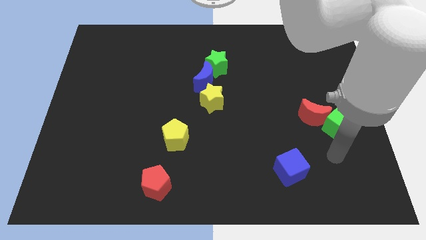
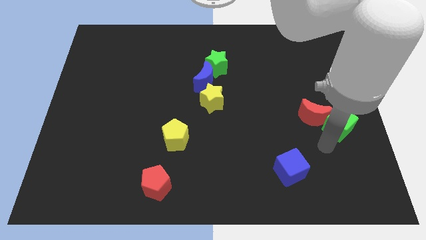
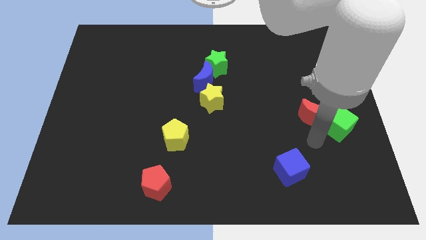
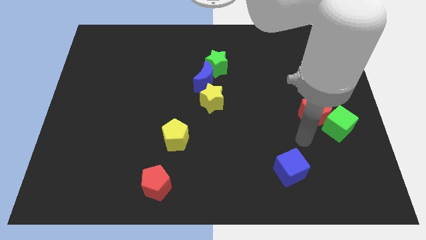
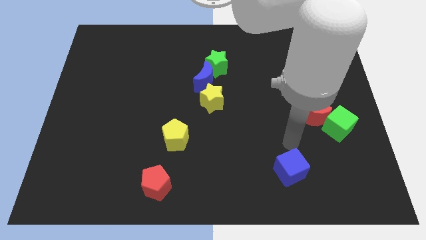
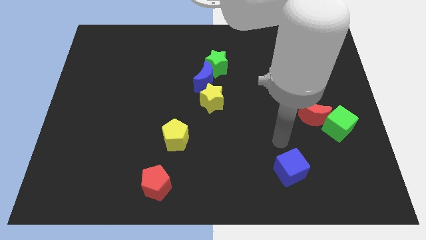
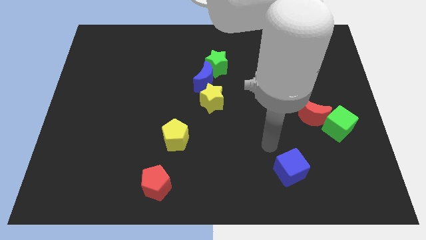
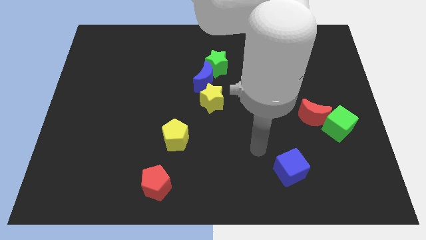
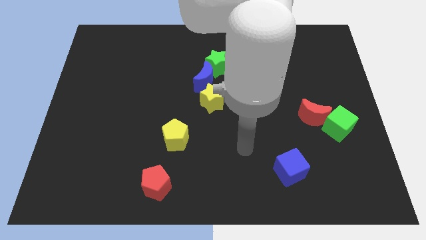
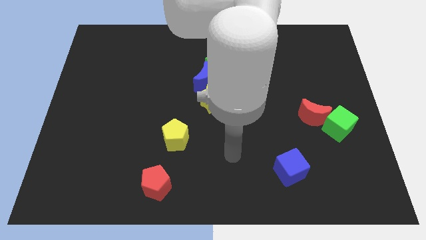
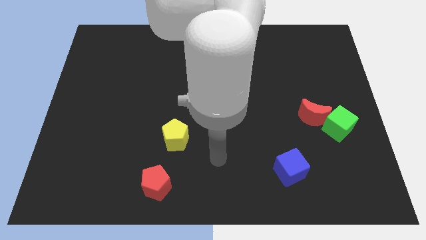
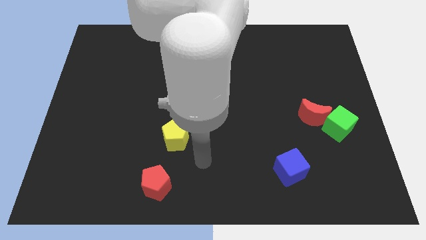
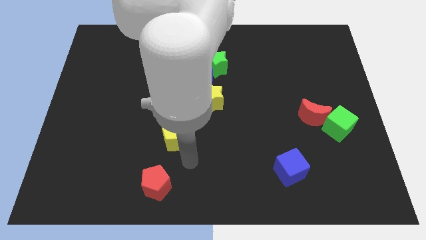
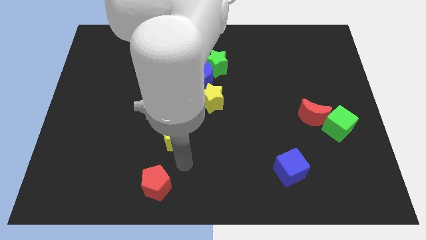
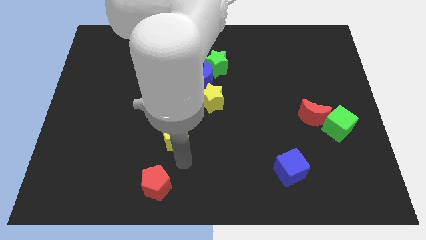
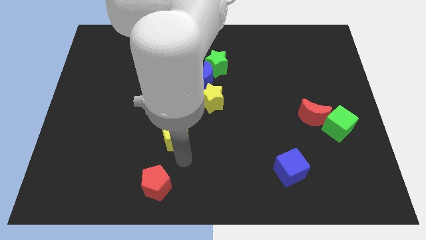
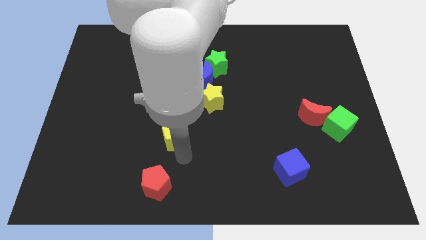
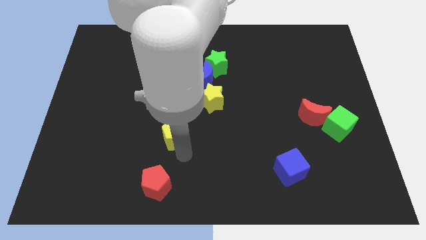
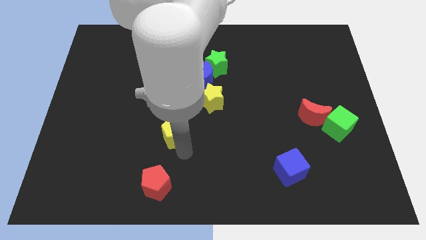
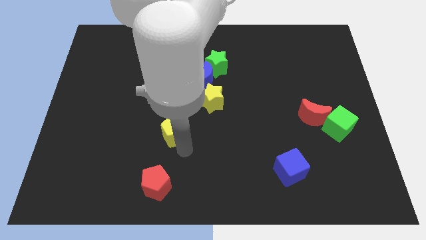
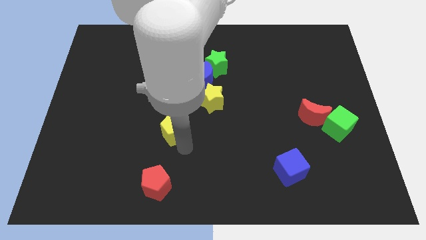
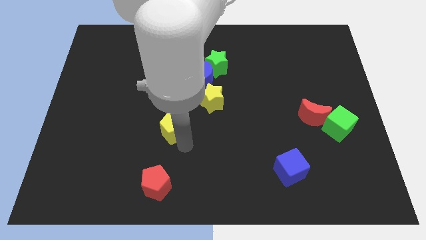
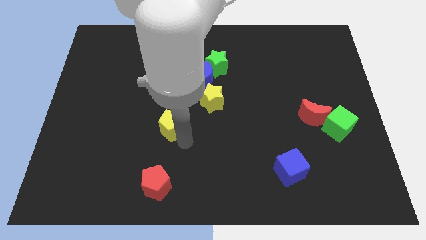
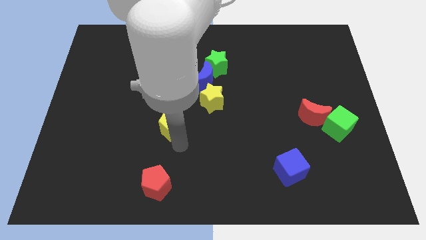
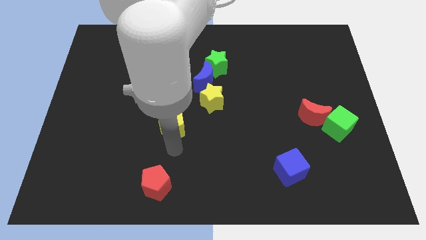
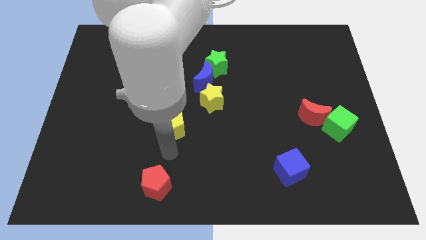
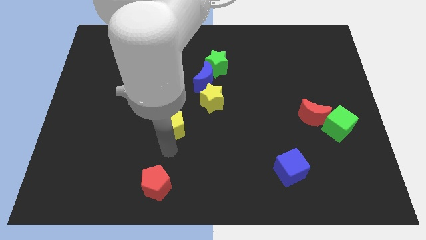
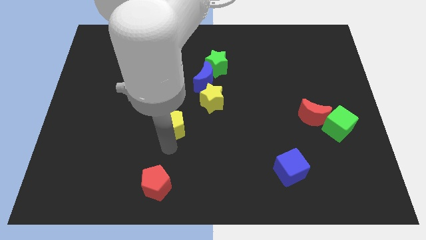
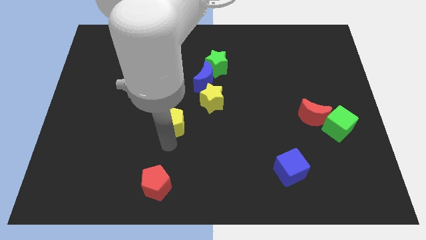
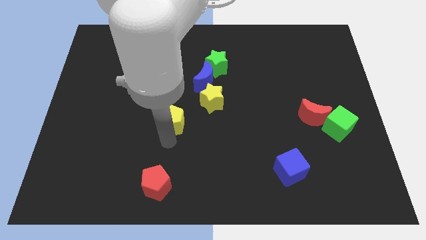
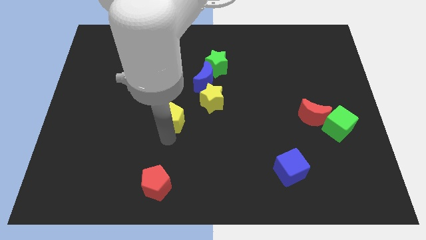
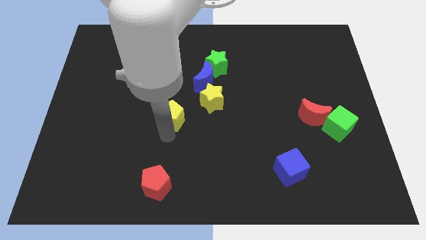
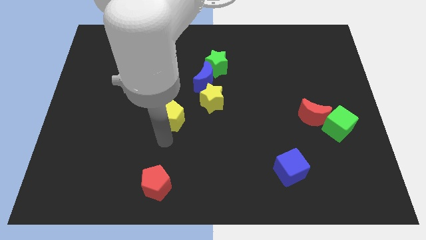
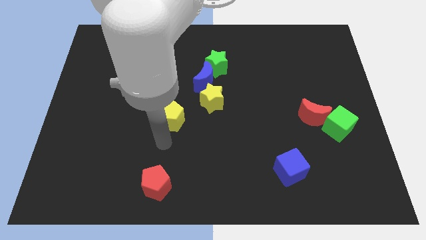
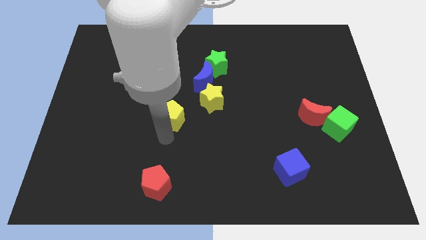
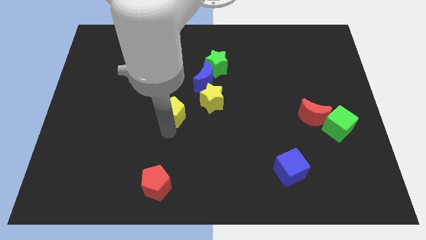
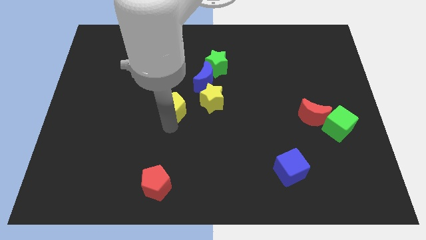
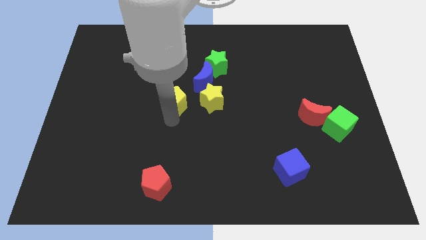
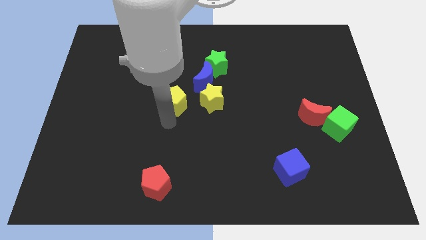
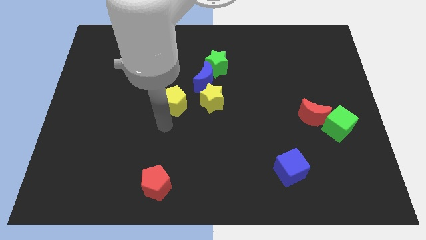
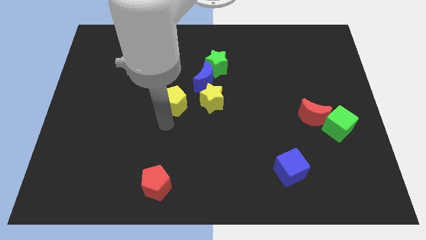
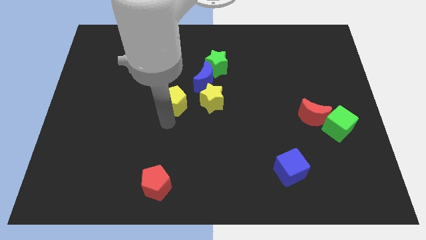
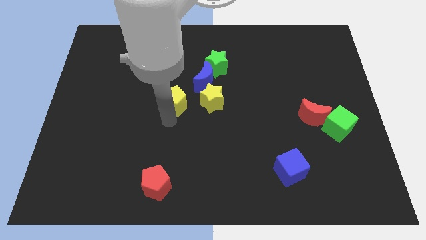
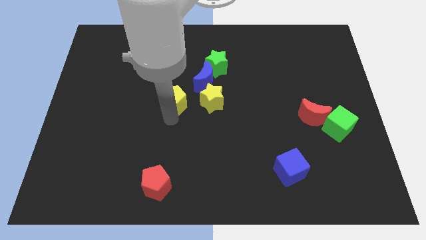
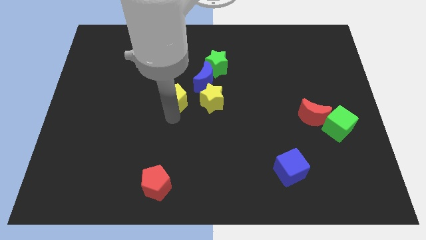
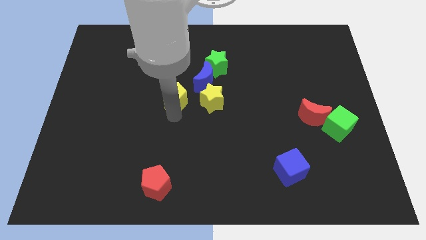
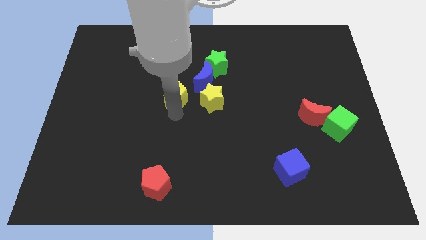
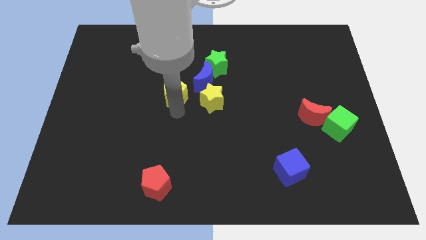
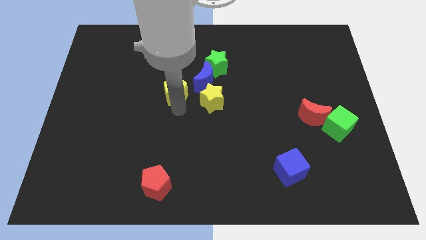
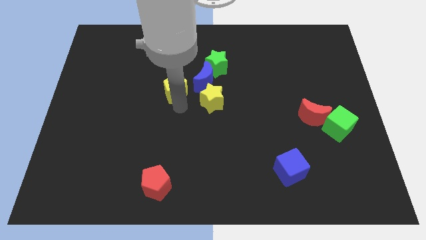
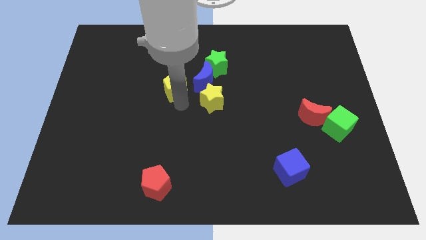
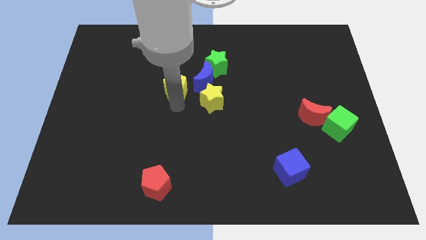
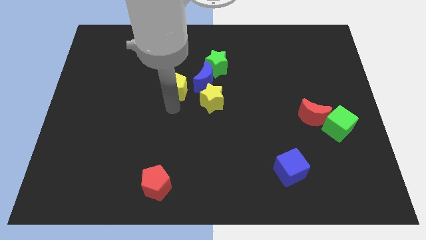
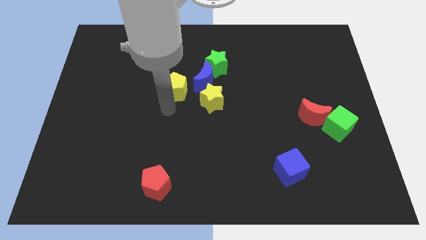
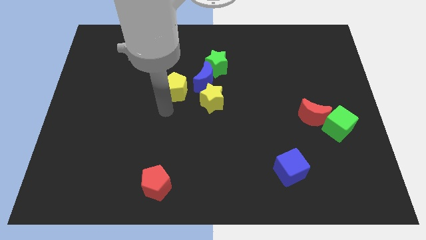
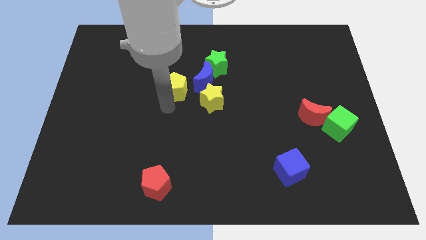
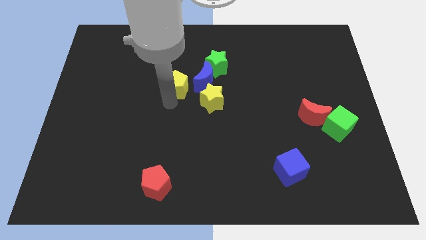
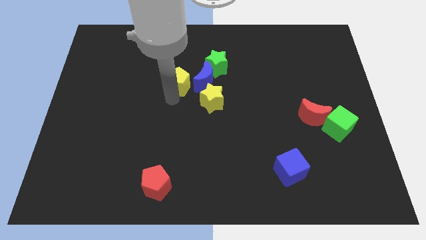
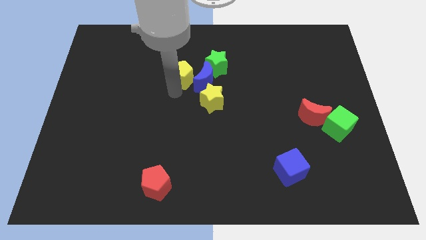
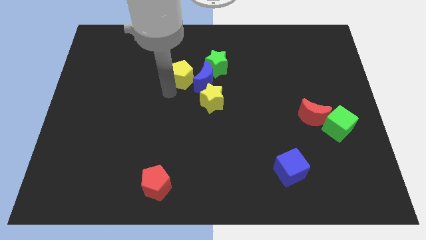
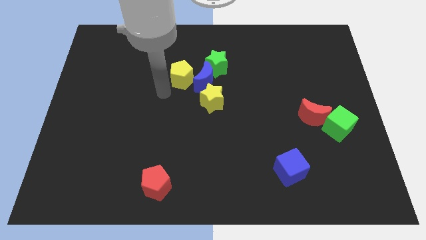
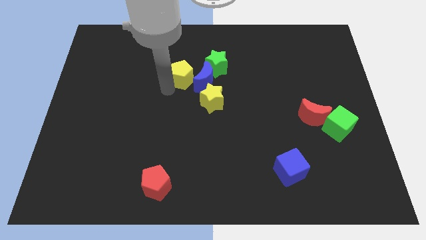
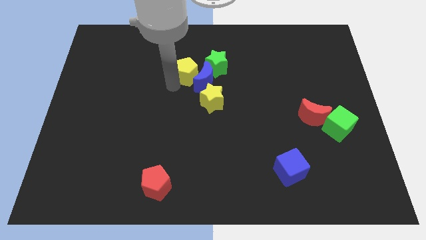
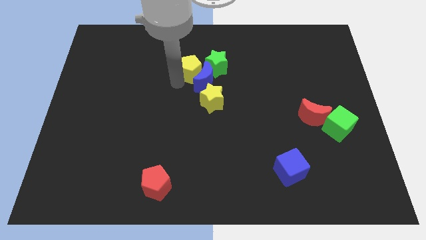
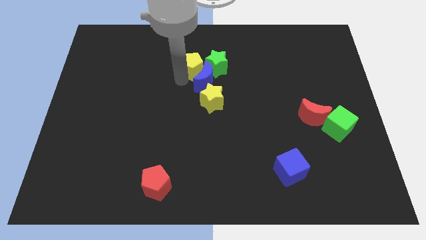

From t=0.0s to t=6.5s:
push the yellow pentagon to the green star
